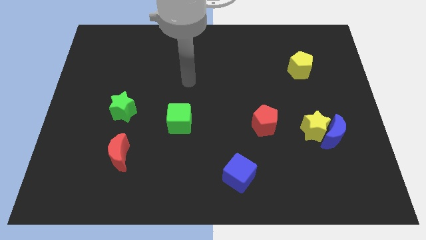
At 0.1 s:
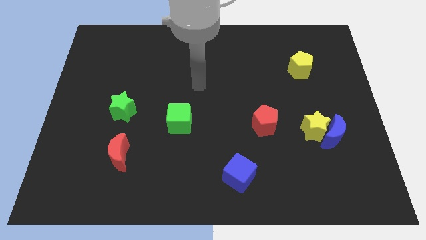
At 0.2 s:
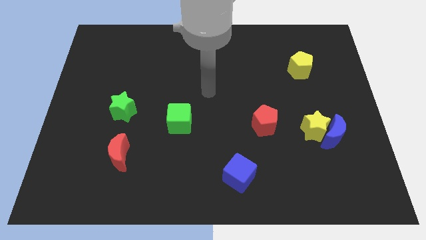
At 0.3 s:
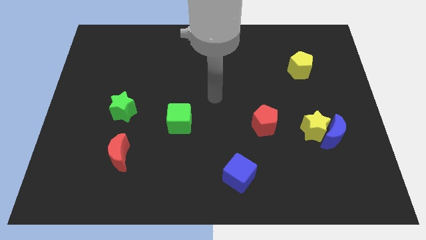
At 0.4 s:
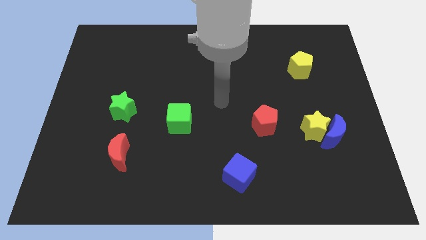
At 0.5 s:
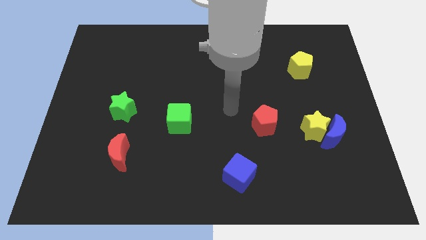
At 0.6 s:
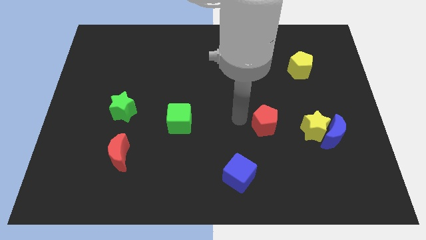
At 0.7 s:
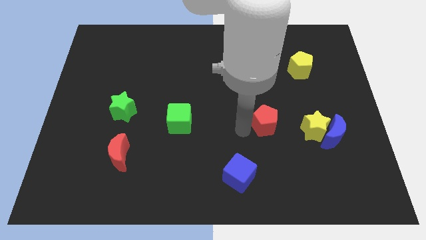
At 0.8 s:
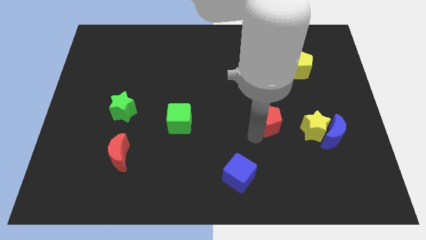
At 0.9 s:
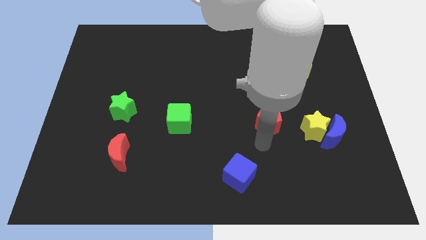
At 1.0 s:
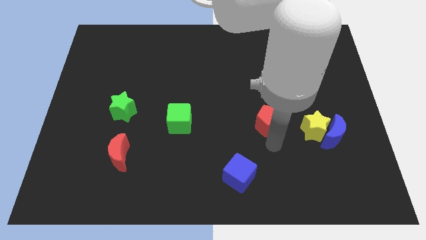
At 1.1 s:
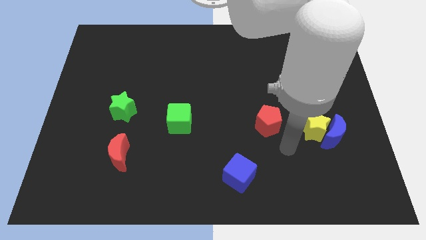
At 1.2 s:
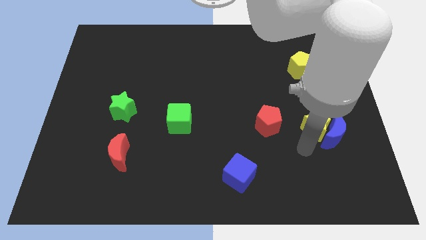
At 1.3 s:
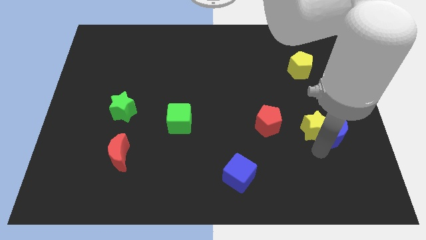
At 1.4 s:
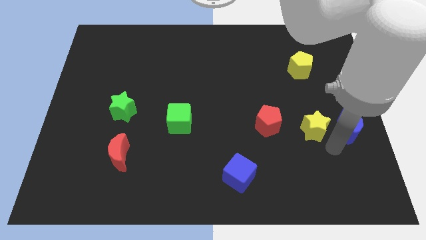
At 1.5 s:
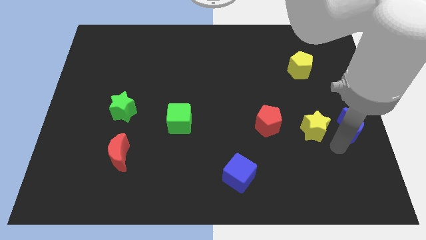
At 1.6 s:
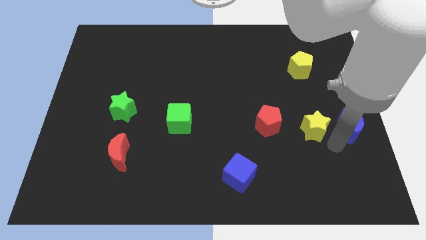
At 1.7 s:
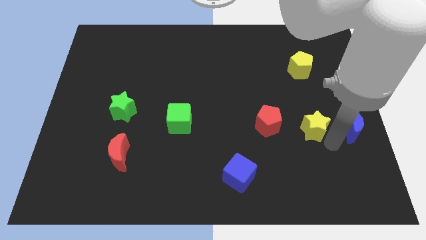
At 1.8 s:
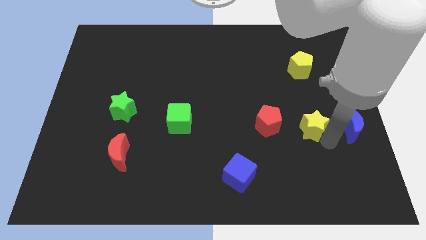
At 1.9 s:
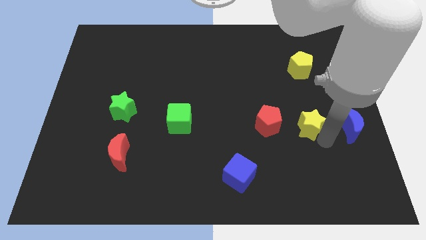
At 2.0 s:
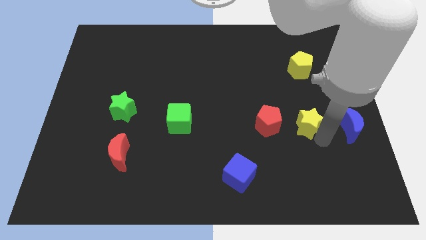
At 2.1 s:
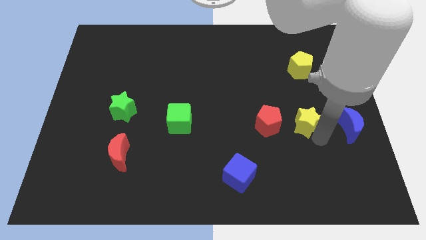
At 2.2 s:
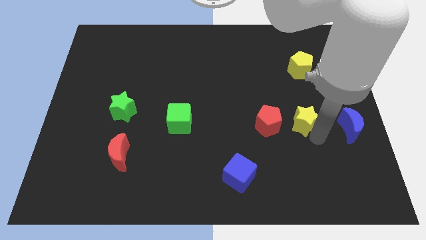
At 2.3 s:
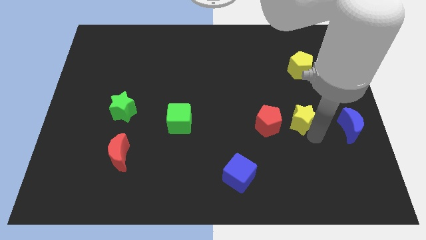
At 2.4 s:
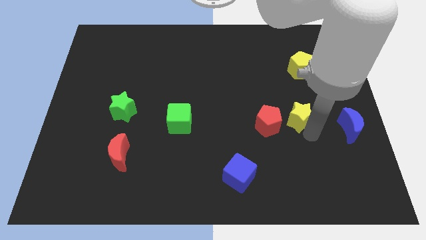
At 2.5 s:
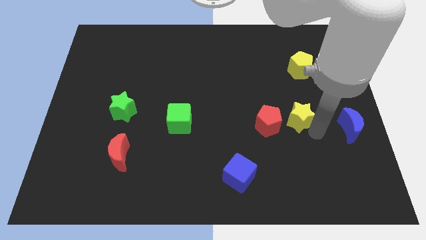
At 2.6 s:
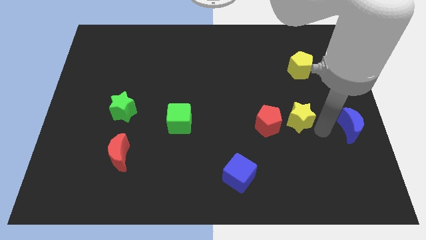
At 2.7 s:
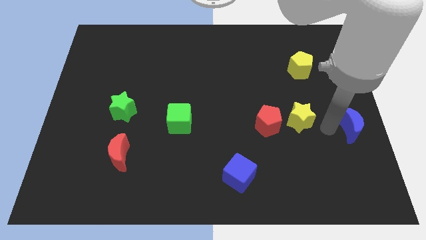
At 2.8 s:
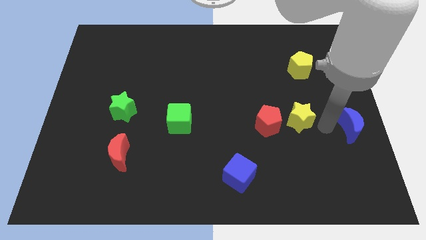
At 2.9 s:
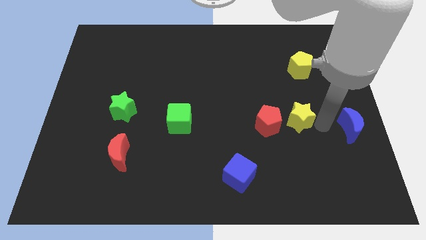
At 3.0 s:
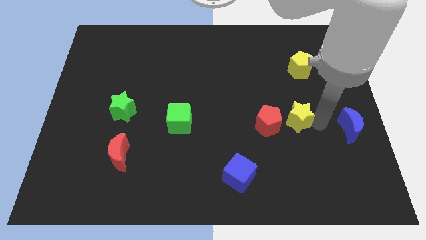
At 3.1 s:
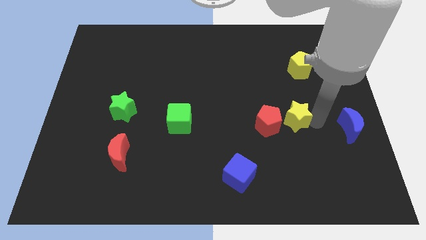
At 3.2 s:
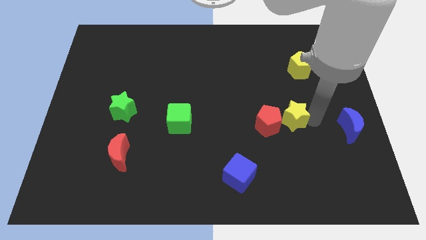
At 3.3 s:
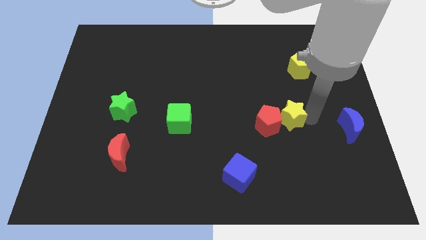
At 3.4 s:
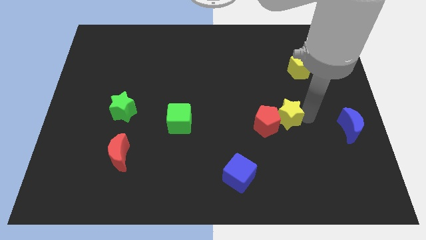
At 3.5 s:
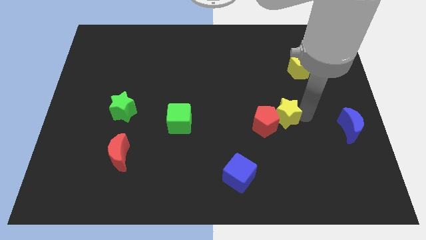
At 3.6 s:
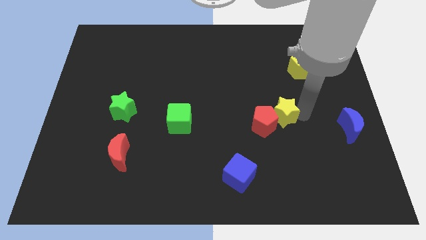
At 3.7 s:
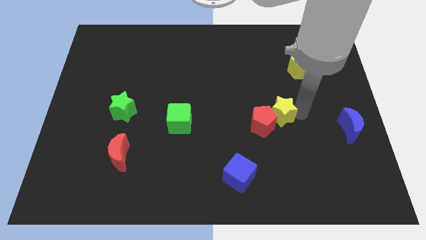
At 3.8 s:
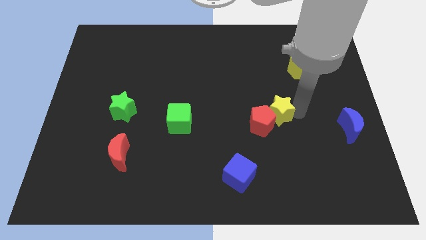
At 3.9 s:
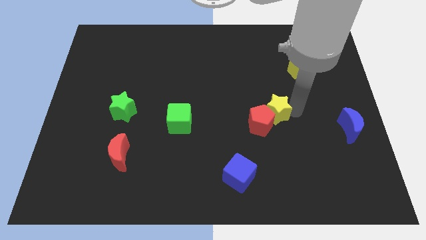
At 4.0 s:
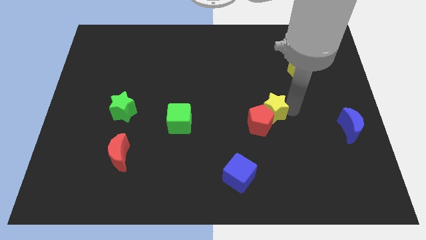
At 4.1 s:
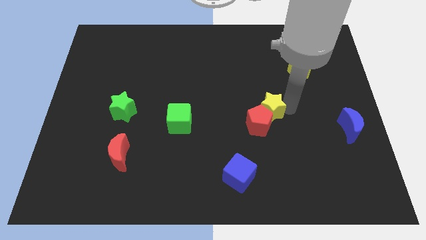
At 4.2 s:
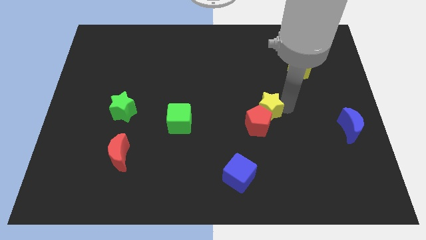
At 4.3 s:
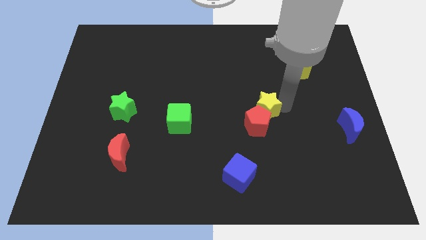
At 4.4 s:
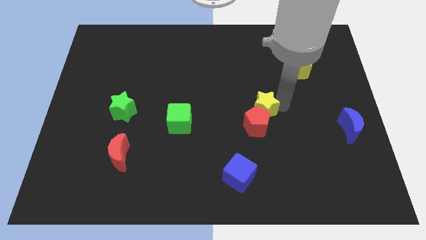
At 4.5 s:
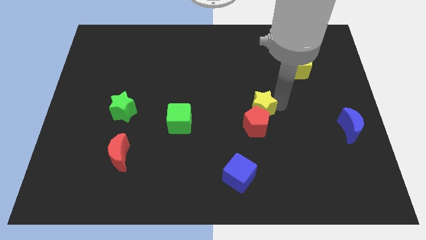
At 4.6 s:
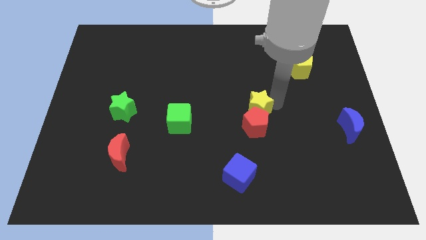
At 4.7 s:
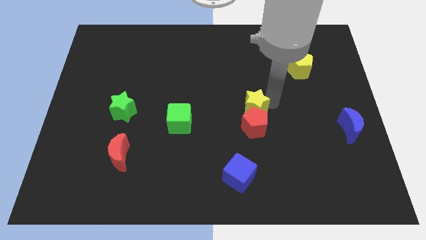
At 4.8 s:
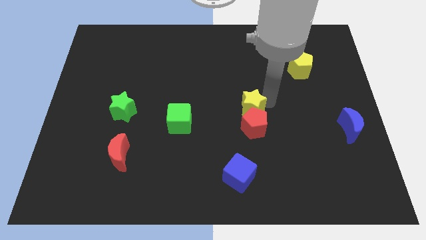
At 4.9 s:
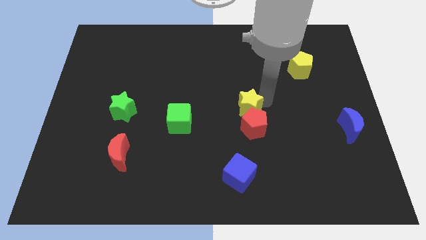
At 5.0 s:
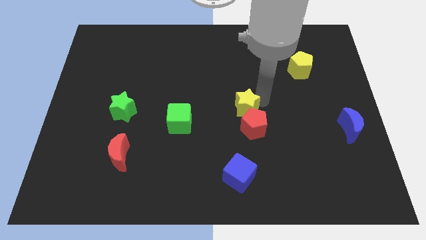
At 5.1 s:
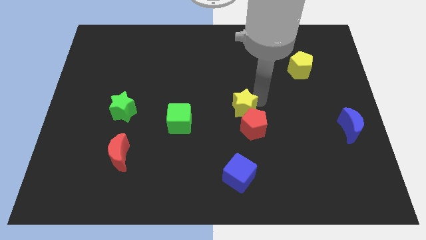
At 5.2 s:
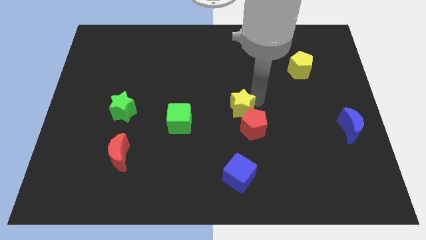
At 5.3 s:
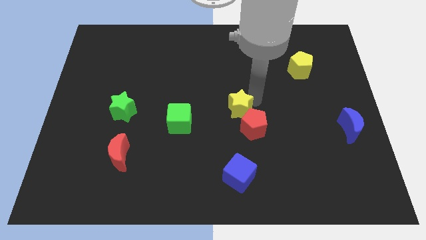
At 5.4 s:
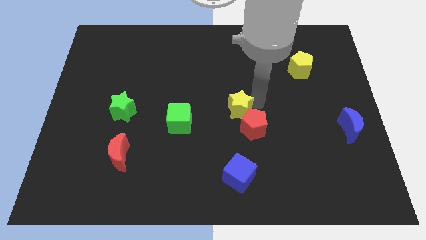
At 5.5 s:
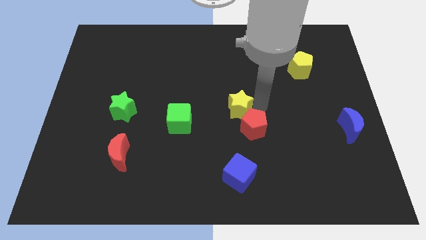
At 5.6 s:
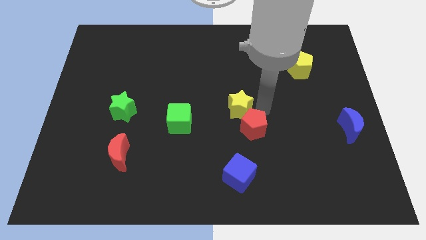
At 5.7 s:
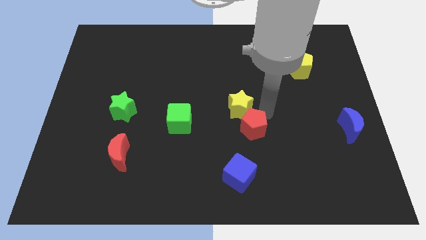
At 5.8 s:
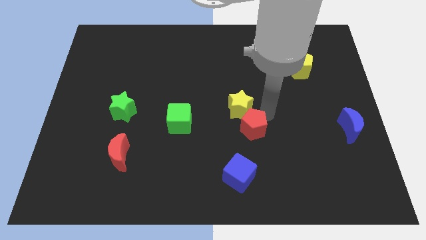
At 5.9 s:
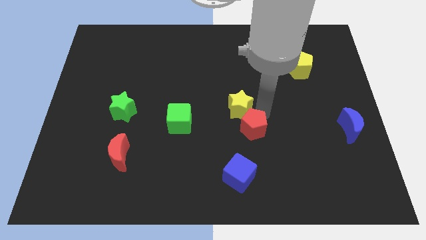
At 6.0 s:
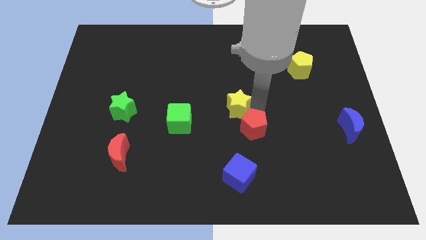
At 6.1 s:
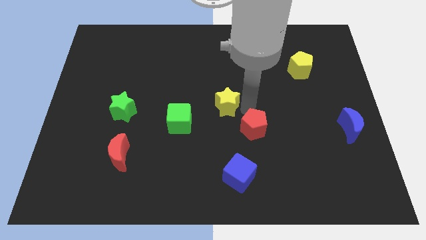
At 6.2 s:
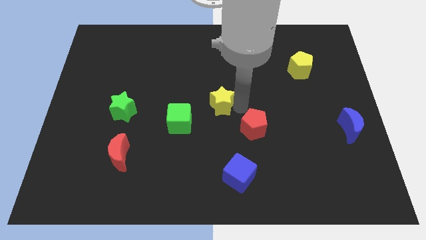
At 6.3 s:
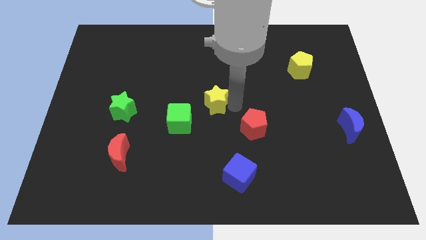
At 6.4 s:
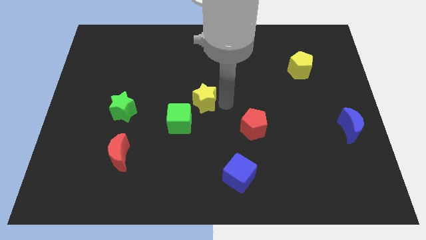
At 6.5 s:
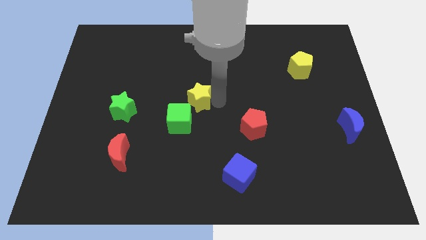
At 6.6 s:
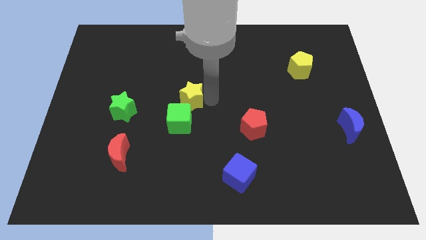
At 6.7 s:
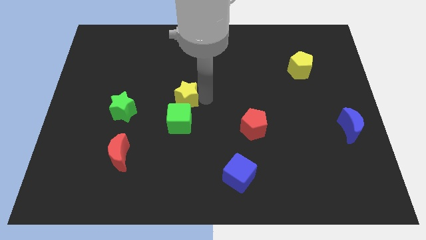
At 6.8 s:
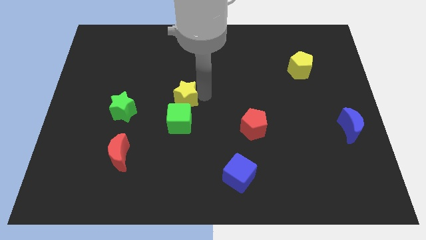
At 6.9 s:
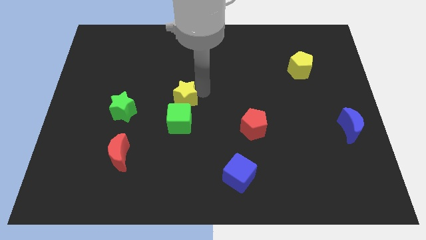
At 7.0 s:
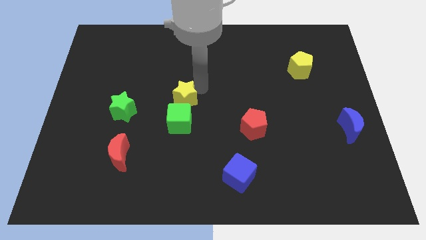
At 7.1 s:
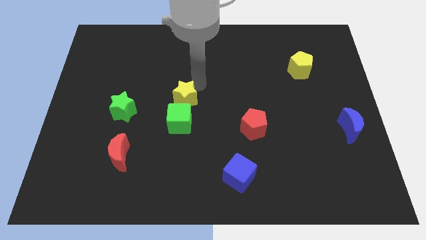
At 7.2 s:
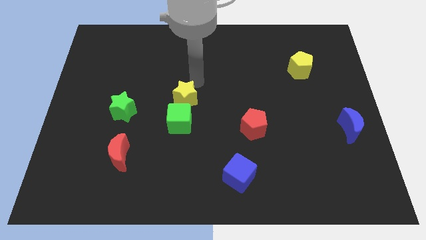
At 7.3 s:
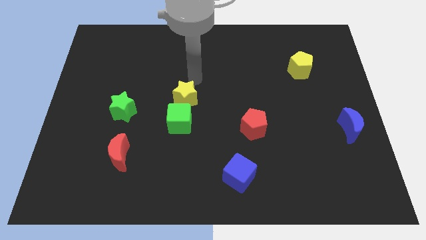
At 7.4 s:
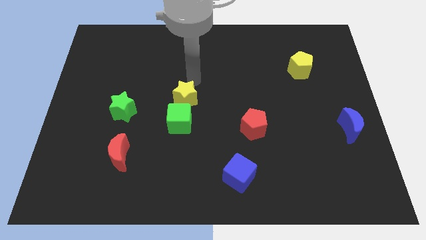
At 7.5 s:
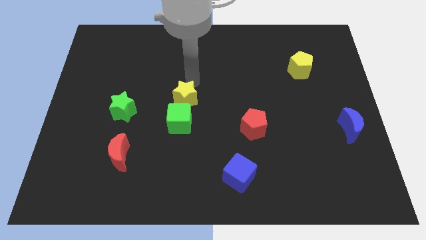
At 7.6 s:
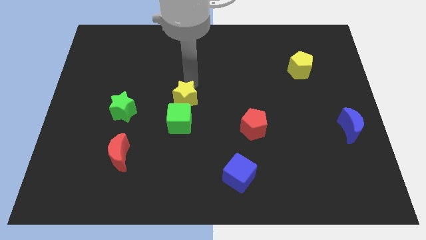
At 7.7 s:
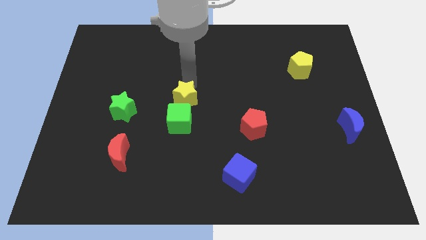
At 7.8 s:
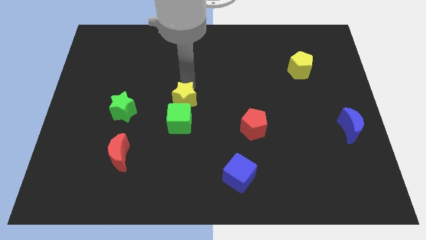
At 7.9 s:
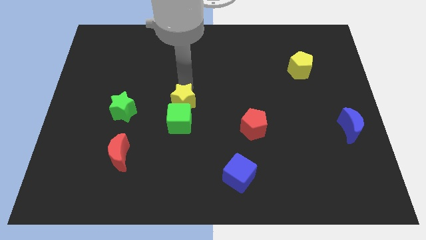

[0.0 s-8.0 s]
push the yellow star to the top left side of the green cube
